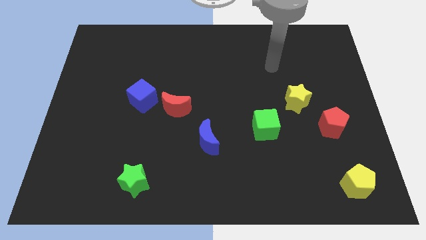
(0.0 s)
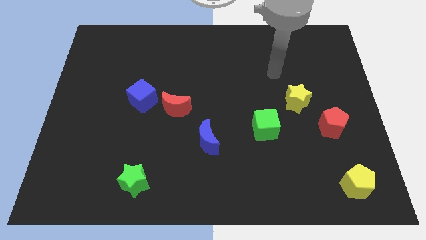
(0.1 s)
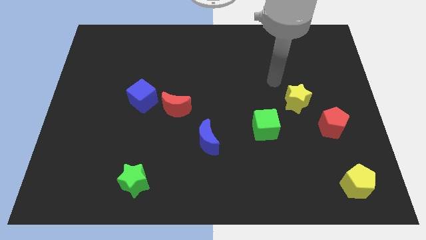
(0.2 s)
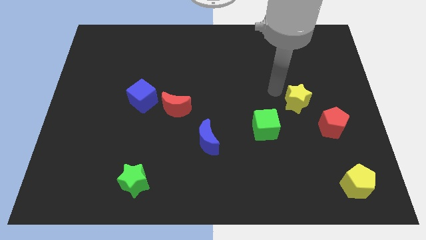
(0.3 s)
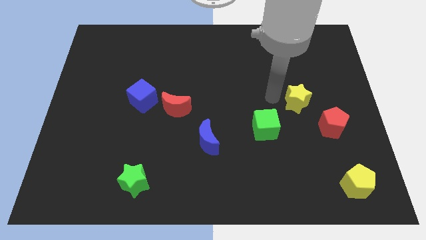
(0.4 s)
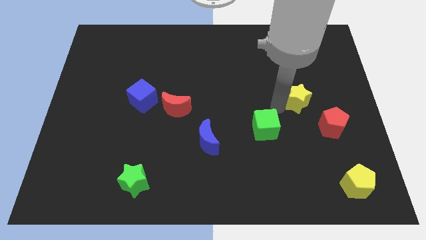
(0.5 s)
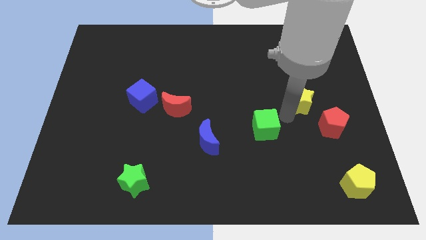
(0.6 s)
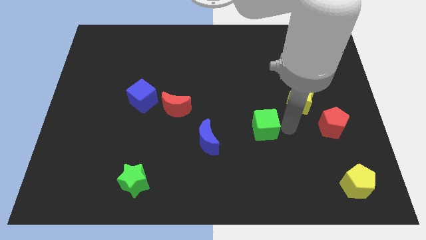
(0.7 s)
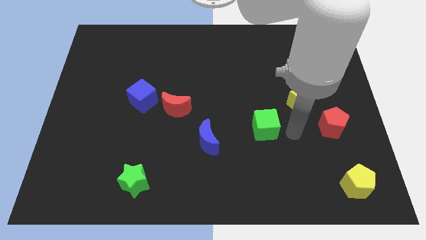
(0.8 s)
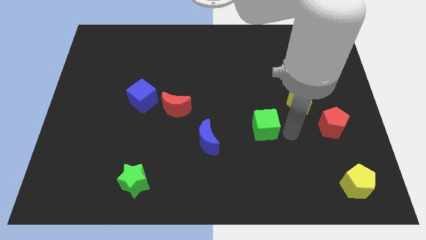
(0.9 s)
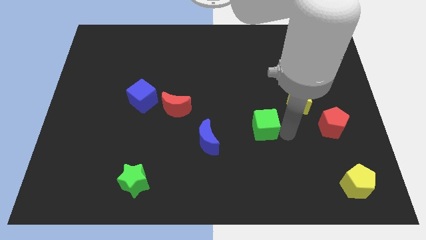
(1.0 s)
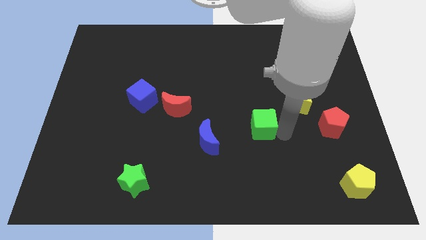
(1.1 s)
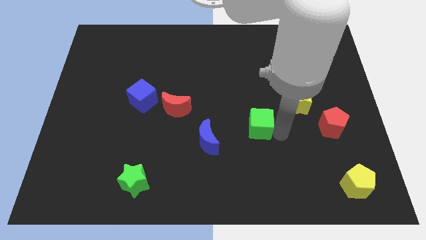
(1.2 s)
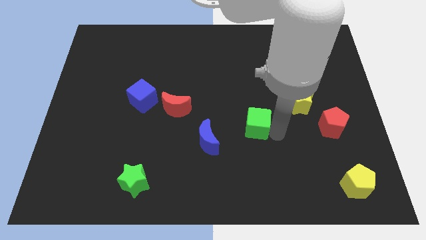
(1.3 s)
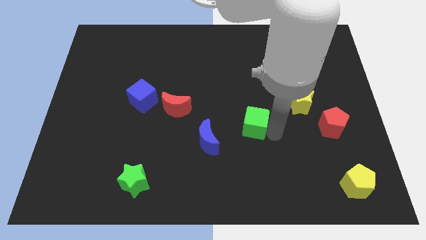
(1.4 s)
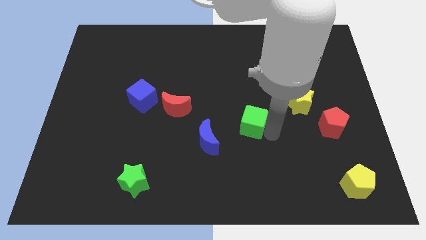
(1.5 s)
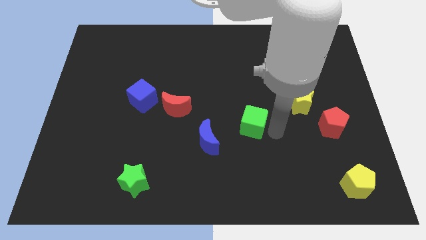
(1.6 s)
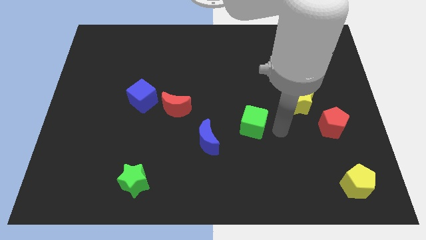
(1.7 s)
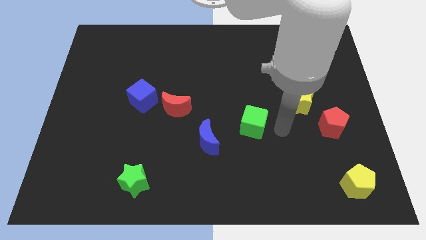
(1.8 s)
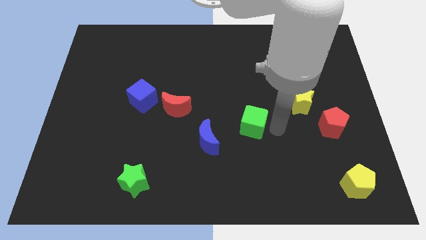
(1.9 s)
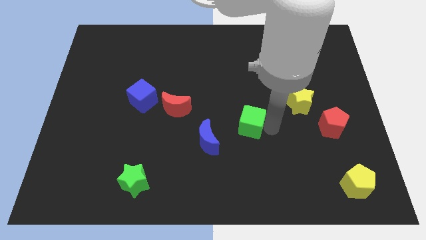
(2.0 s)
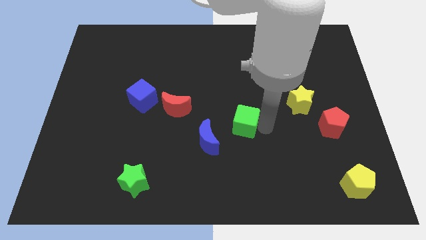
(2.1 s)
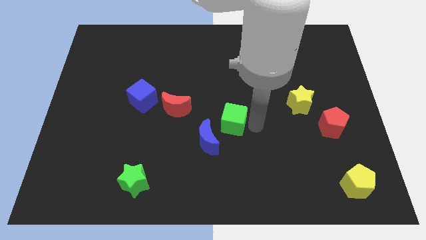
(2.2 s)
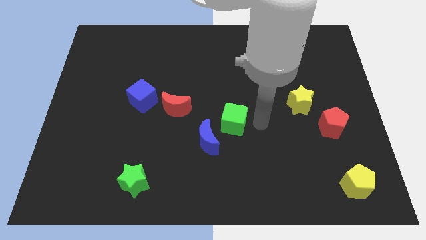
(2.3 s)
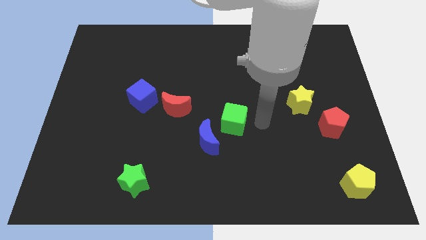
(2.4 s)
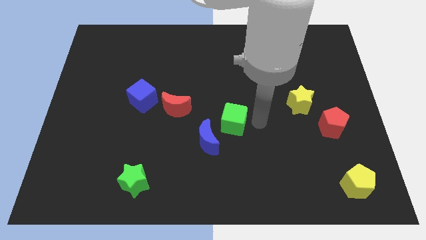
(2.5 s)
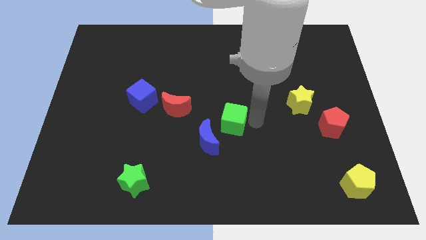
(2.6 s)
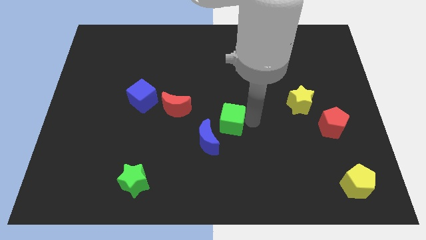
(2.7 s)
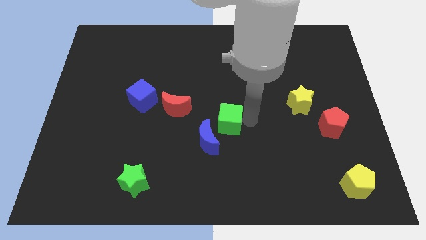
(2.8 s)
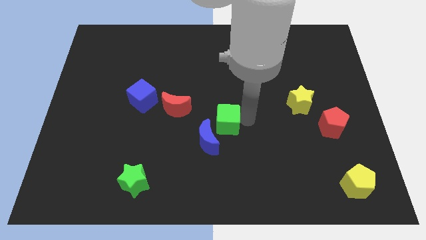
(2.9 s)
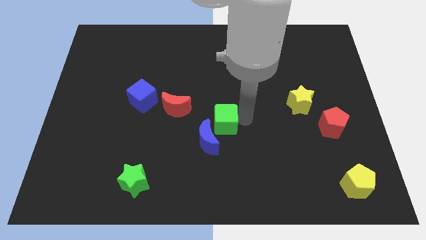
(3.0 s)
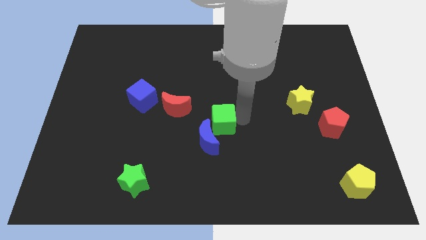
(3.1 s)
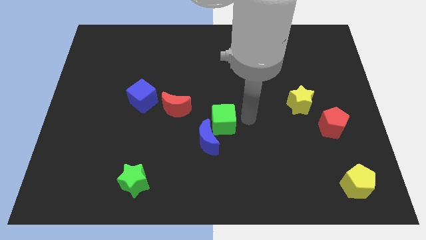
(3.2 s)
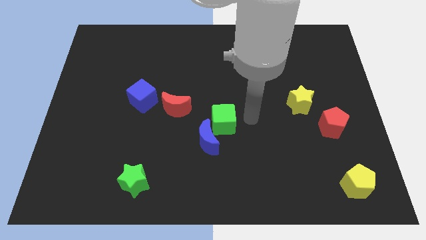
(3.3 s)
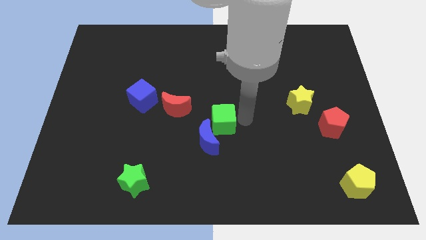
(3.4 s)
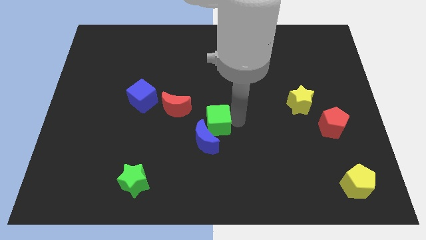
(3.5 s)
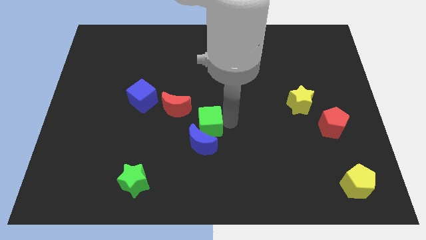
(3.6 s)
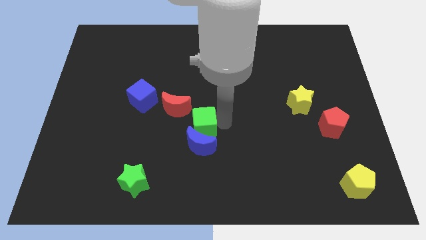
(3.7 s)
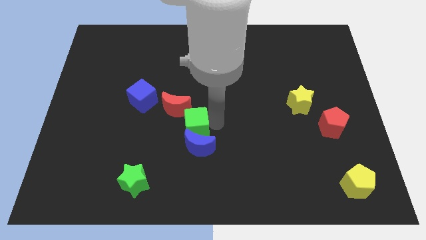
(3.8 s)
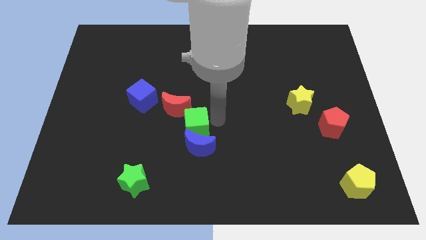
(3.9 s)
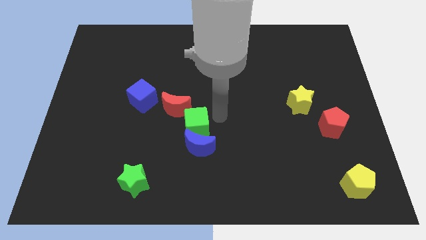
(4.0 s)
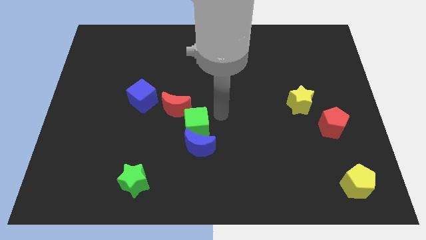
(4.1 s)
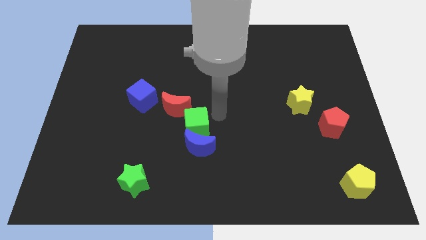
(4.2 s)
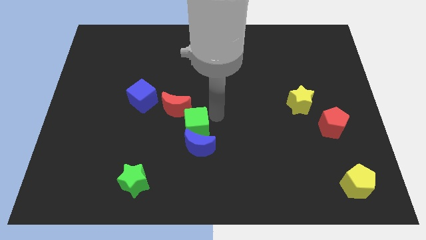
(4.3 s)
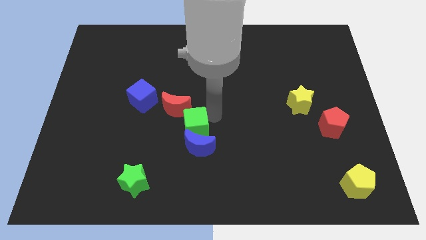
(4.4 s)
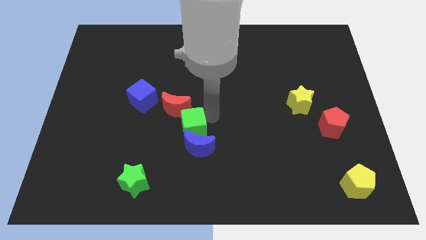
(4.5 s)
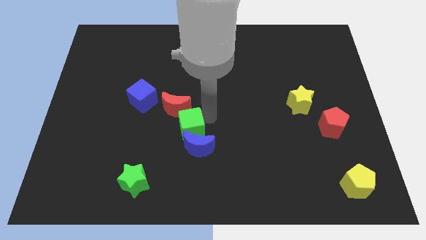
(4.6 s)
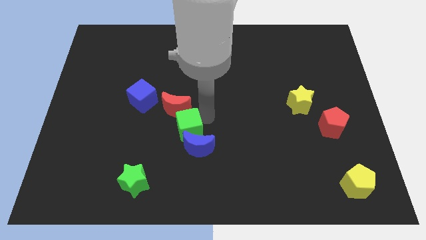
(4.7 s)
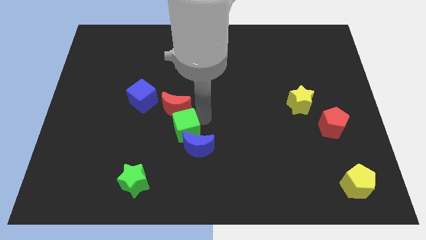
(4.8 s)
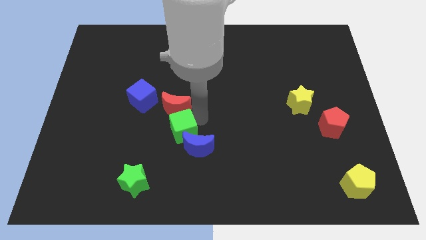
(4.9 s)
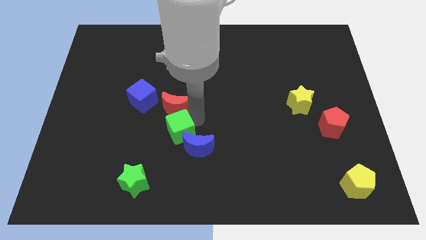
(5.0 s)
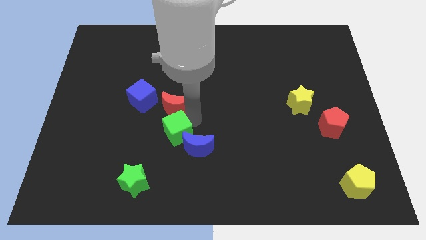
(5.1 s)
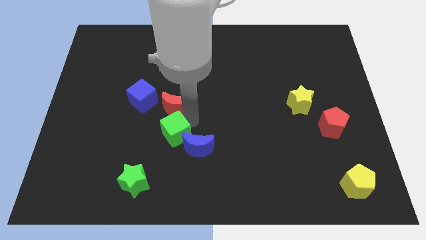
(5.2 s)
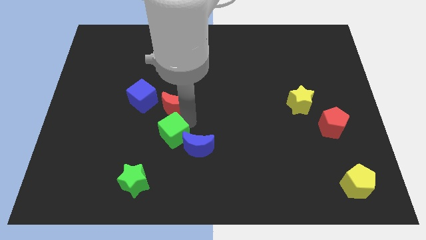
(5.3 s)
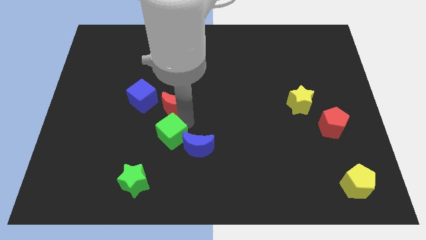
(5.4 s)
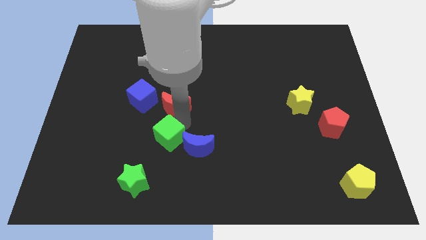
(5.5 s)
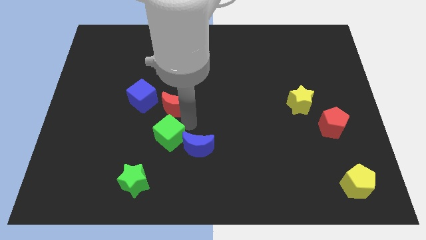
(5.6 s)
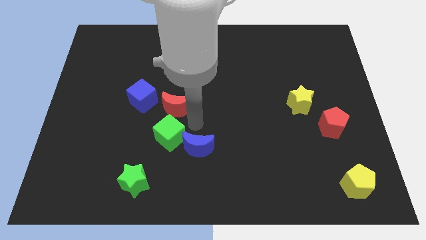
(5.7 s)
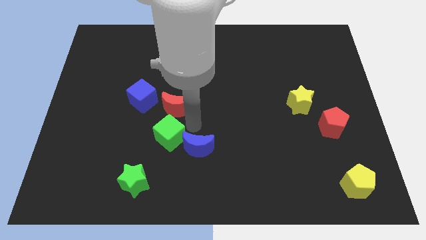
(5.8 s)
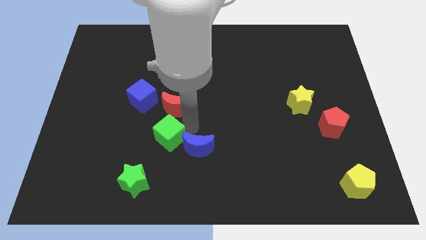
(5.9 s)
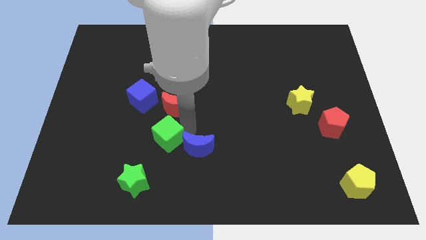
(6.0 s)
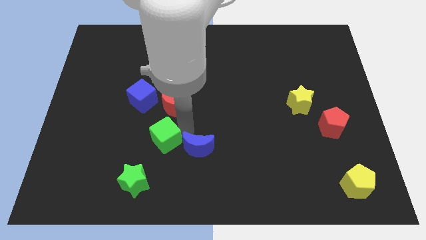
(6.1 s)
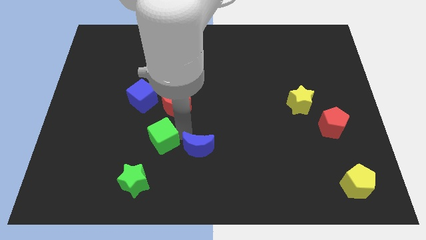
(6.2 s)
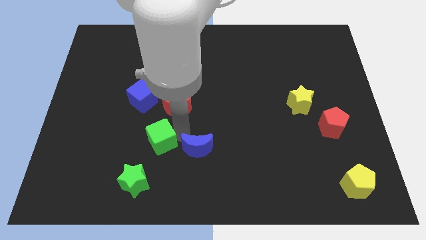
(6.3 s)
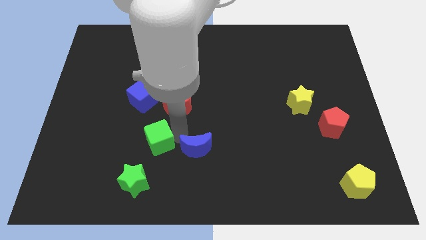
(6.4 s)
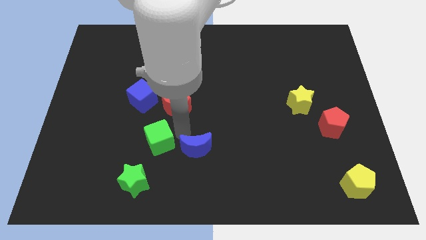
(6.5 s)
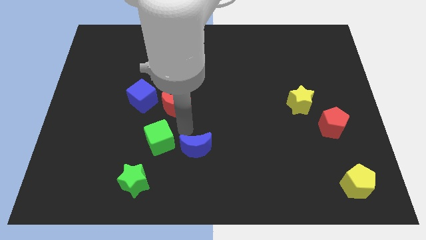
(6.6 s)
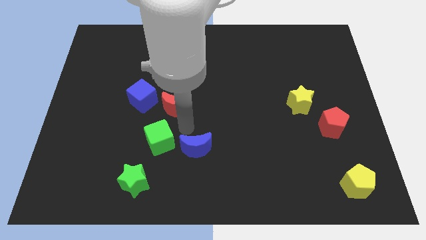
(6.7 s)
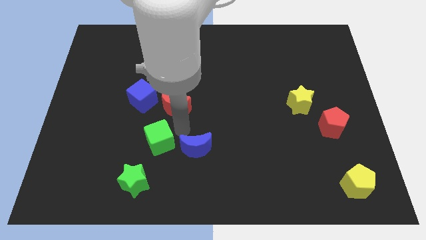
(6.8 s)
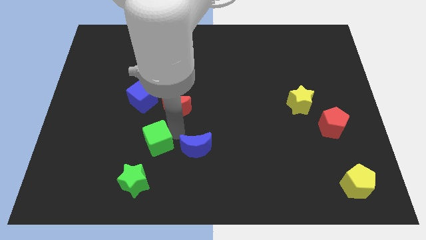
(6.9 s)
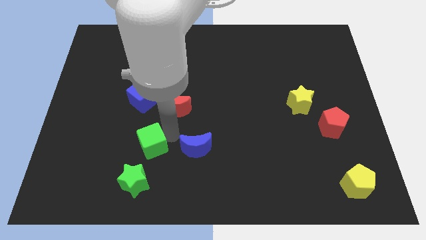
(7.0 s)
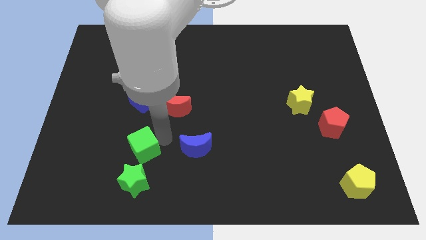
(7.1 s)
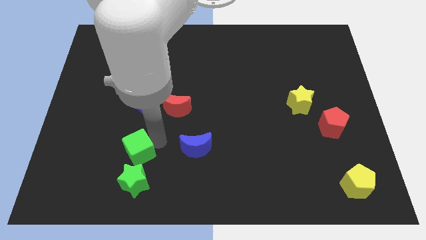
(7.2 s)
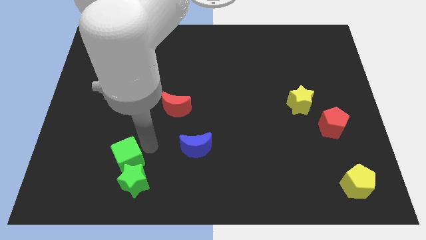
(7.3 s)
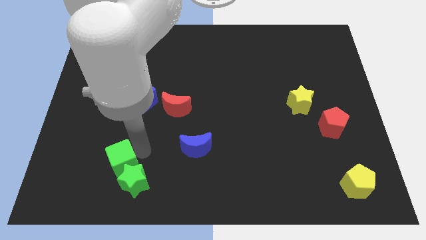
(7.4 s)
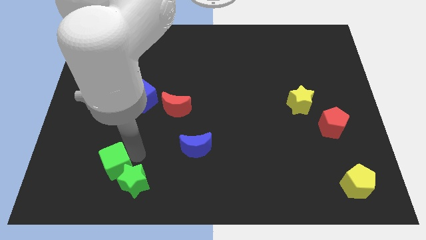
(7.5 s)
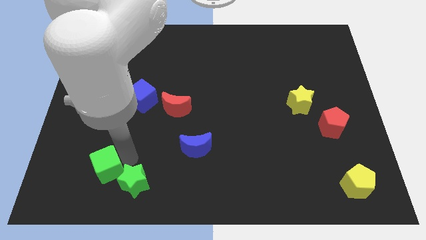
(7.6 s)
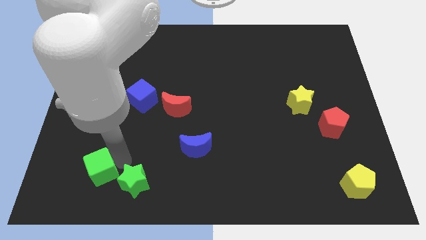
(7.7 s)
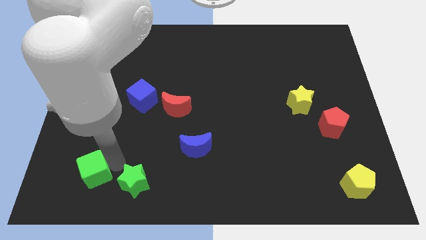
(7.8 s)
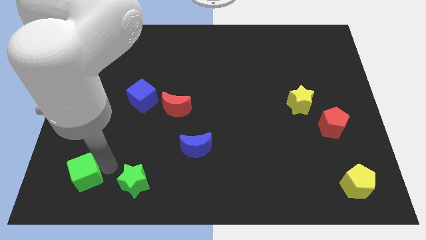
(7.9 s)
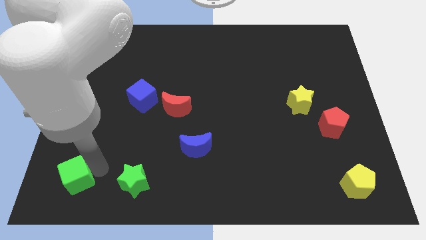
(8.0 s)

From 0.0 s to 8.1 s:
put the green cube to the bottom left corner
